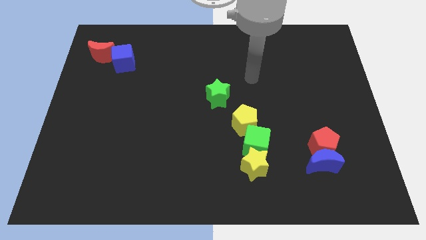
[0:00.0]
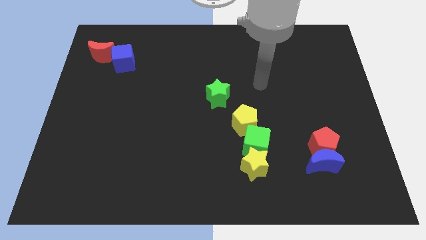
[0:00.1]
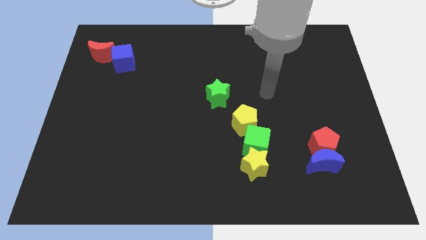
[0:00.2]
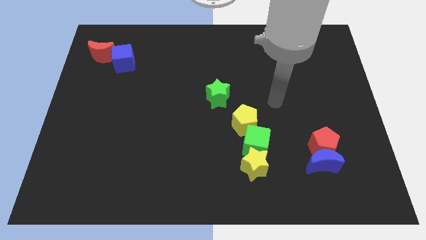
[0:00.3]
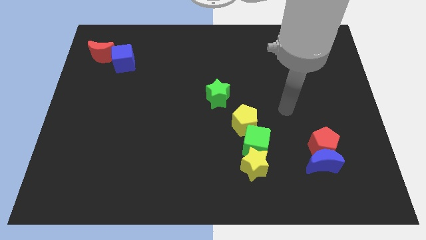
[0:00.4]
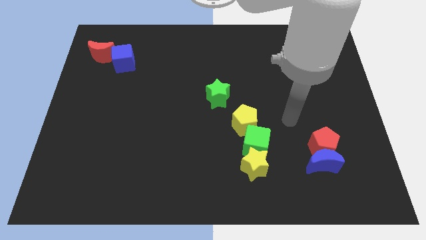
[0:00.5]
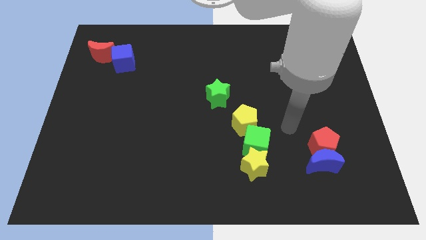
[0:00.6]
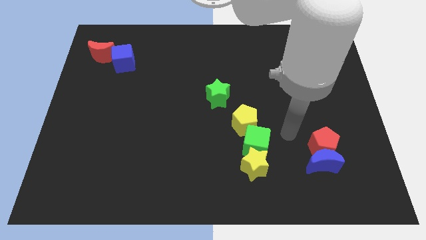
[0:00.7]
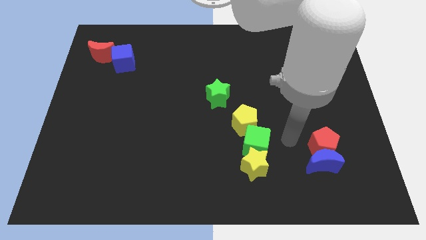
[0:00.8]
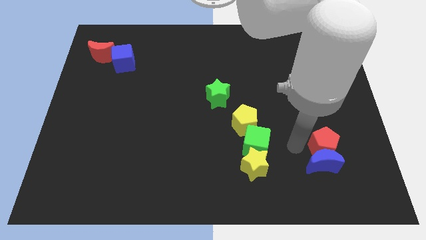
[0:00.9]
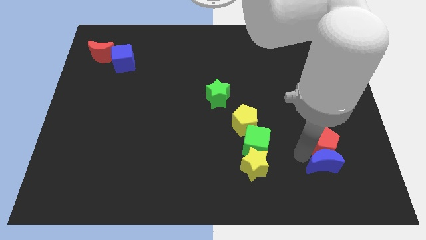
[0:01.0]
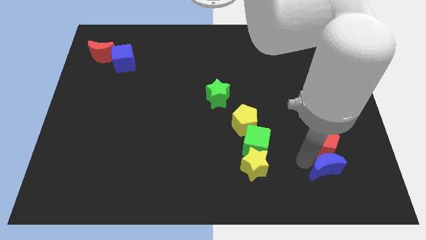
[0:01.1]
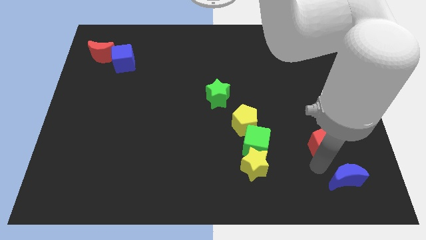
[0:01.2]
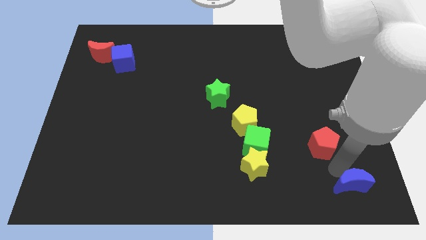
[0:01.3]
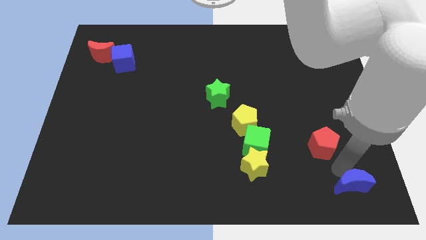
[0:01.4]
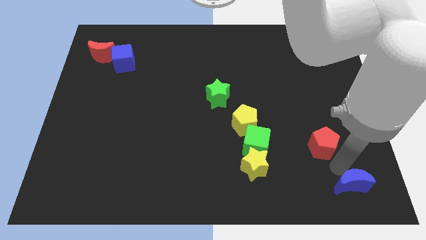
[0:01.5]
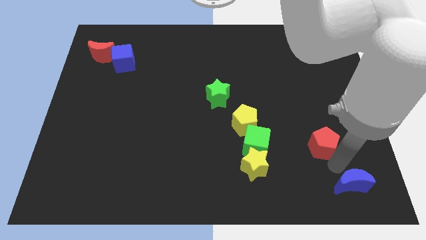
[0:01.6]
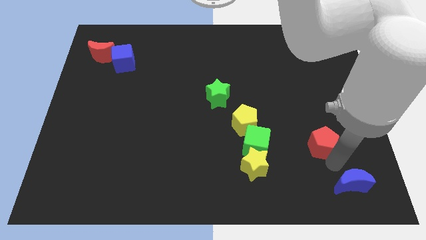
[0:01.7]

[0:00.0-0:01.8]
separate the red pentagon from the blue moon

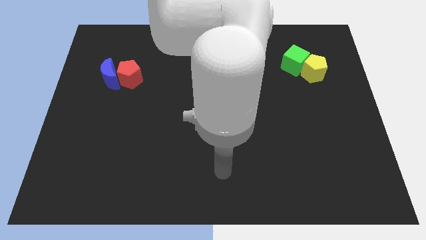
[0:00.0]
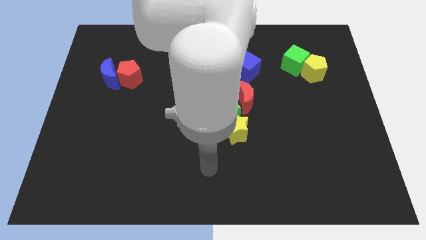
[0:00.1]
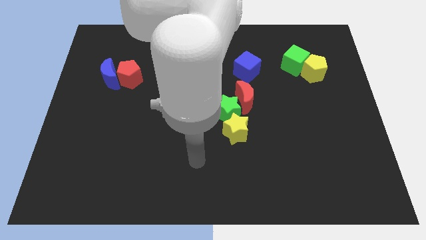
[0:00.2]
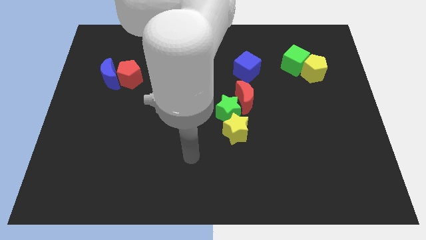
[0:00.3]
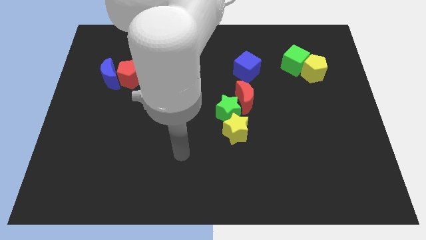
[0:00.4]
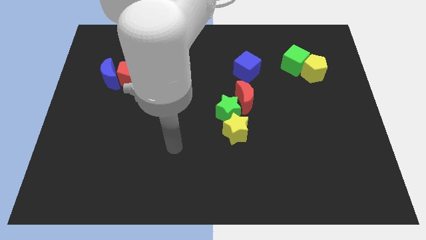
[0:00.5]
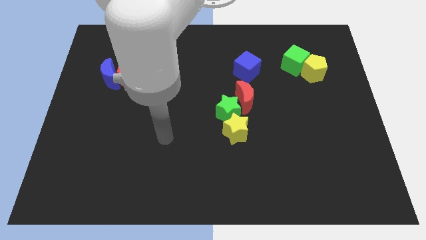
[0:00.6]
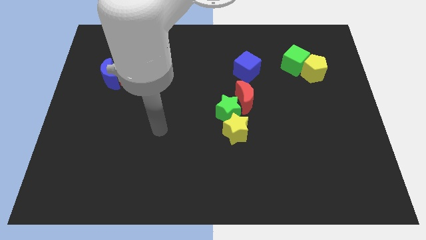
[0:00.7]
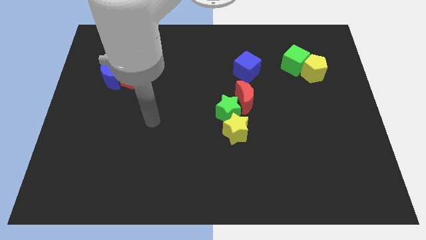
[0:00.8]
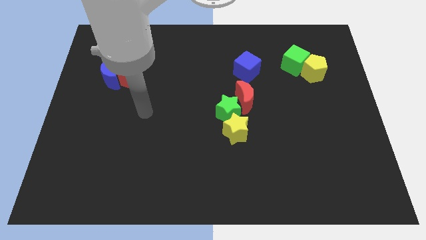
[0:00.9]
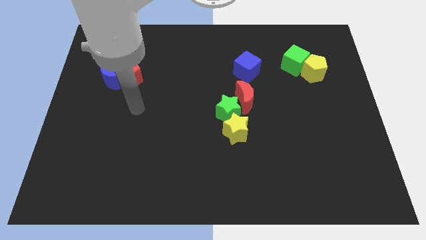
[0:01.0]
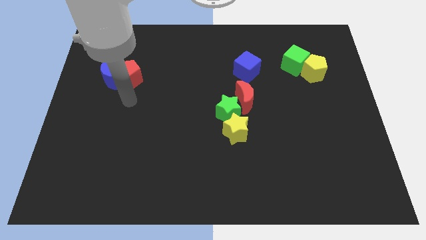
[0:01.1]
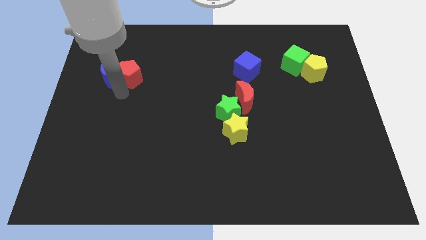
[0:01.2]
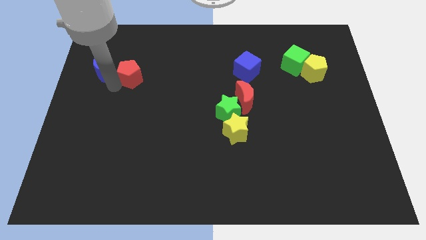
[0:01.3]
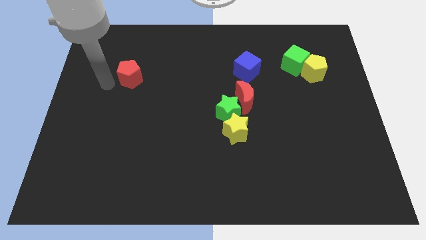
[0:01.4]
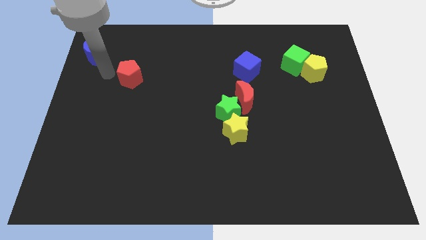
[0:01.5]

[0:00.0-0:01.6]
pull the red pentagon apart from the blue moon

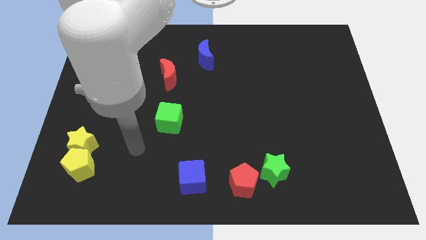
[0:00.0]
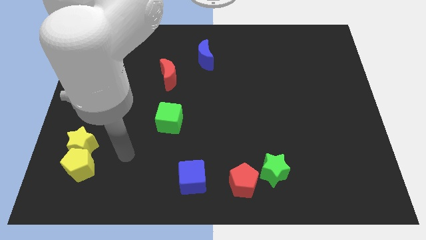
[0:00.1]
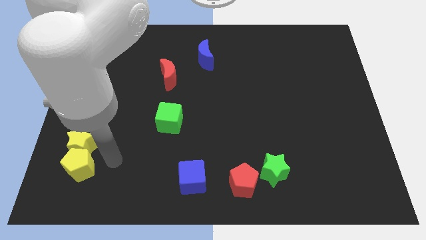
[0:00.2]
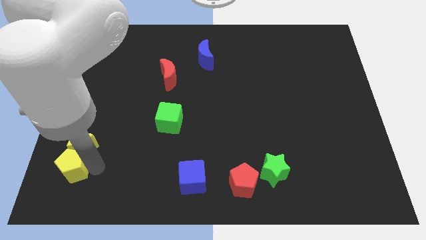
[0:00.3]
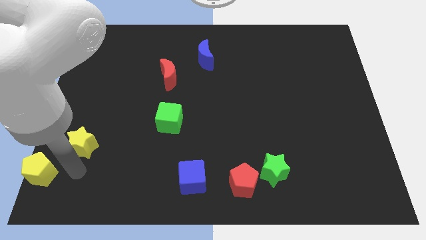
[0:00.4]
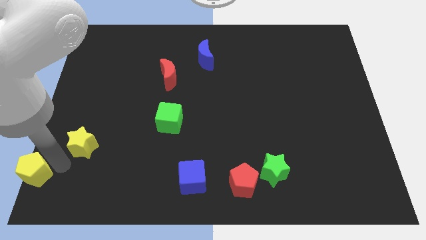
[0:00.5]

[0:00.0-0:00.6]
pull the yellow star apart from the yellow pentagon

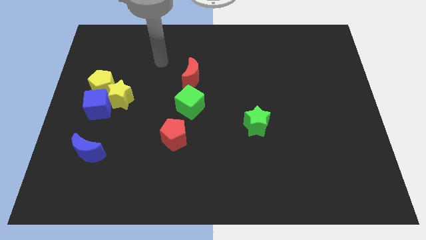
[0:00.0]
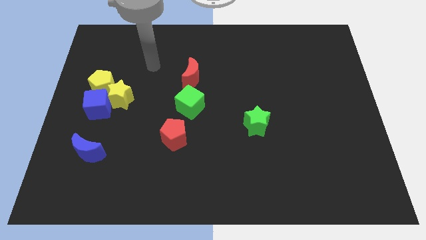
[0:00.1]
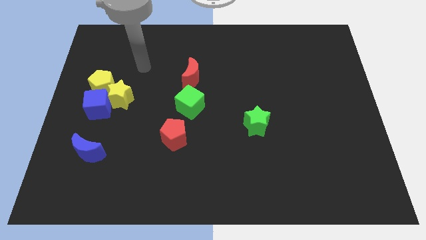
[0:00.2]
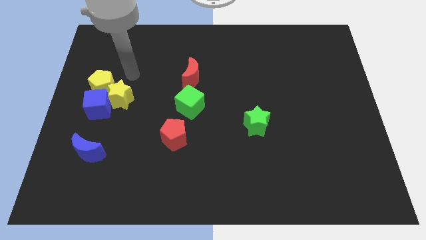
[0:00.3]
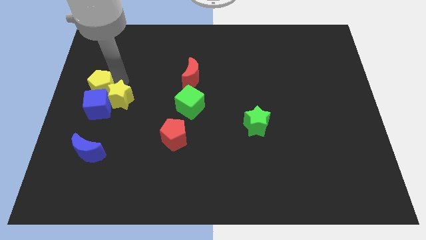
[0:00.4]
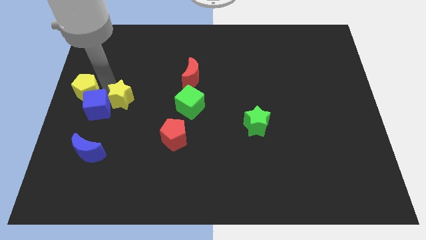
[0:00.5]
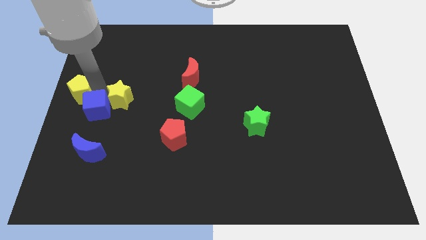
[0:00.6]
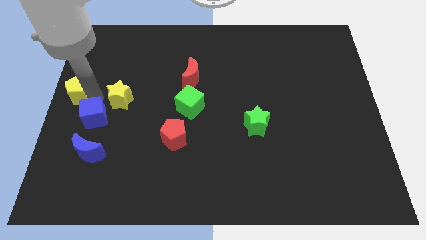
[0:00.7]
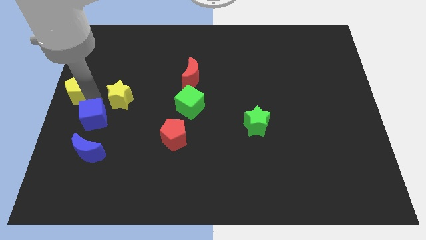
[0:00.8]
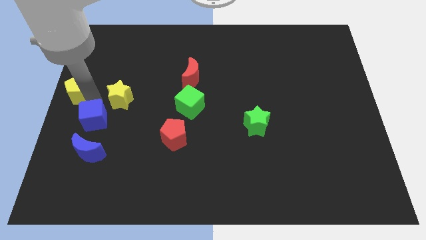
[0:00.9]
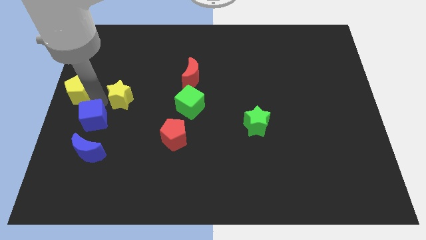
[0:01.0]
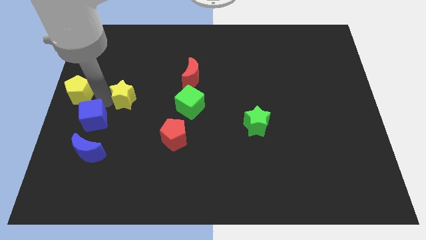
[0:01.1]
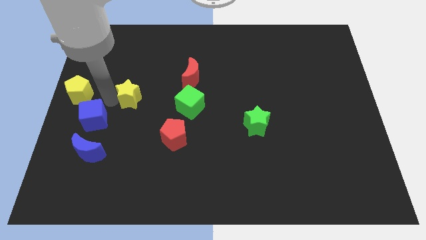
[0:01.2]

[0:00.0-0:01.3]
separate the yellow star from the blue cube and yellow pentagon

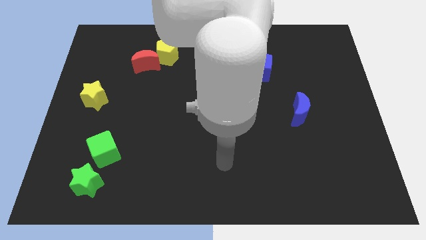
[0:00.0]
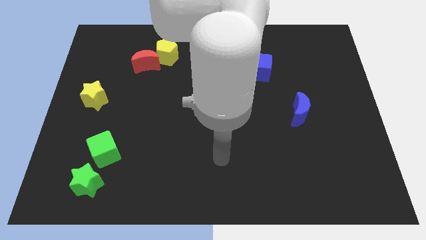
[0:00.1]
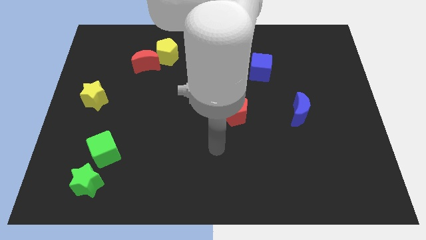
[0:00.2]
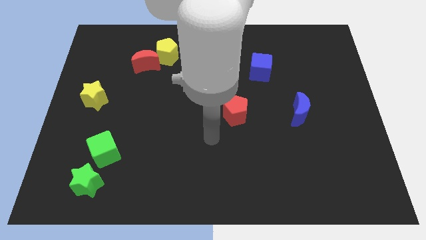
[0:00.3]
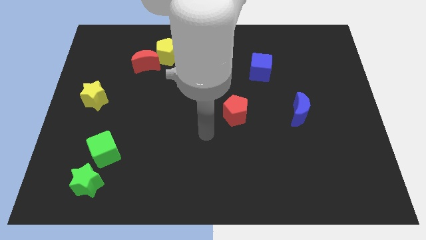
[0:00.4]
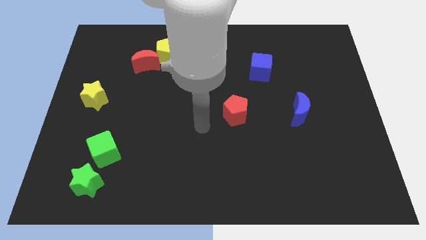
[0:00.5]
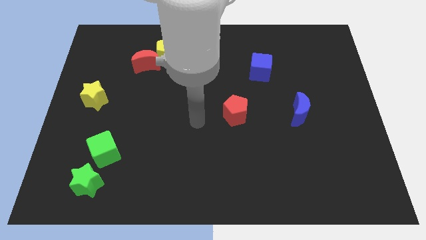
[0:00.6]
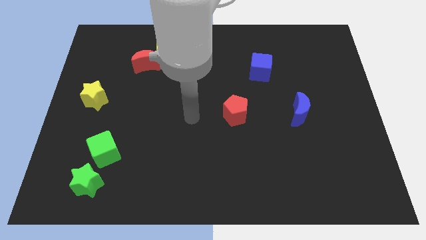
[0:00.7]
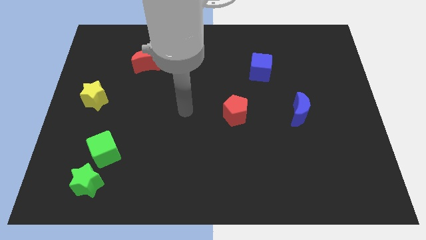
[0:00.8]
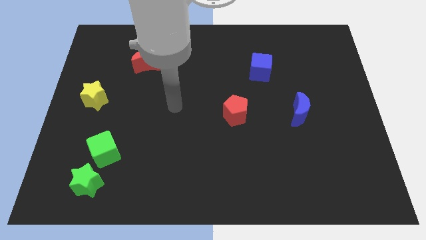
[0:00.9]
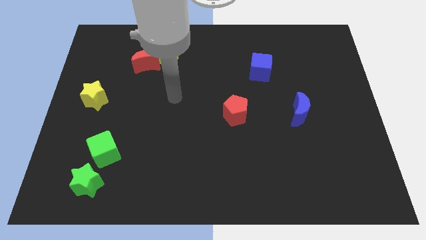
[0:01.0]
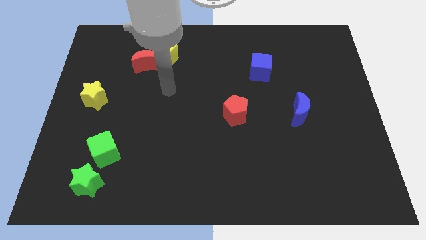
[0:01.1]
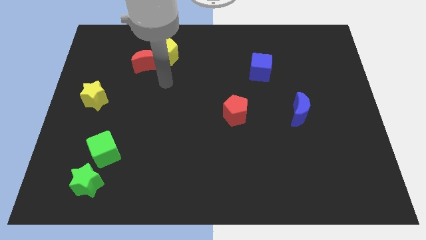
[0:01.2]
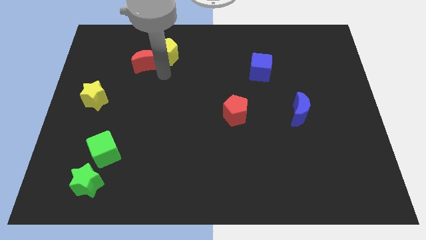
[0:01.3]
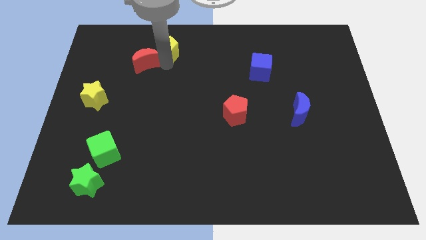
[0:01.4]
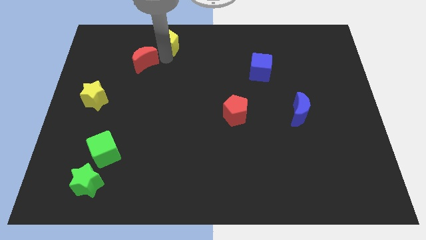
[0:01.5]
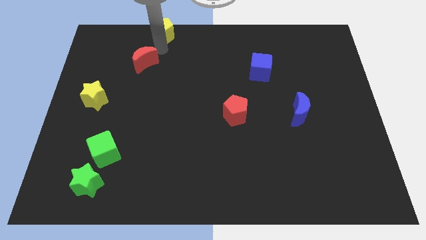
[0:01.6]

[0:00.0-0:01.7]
pull the red moon apart from the yellow pentagon

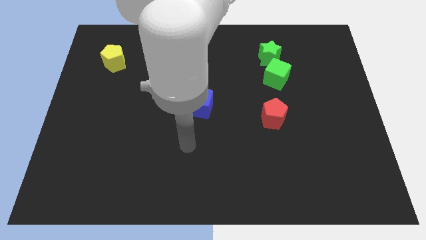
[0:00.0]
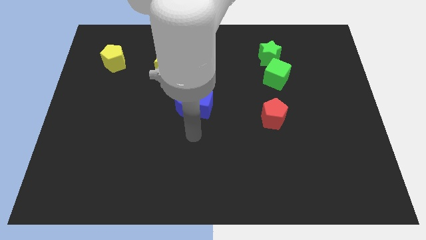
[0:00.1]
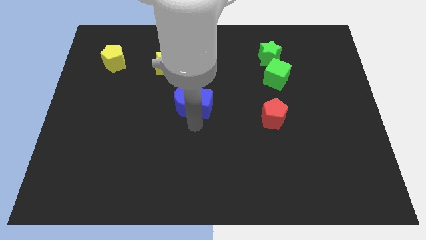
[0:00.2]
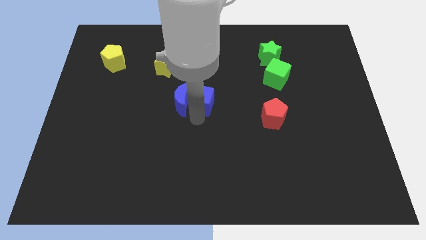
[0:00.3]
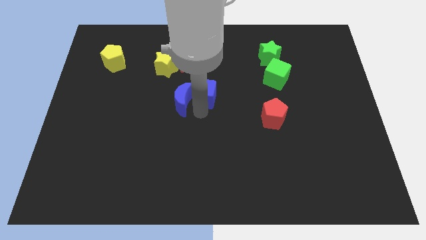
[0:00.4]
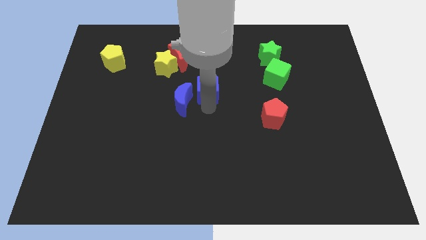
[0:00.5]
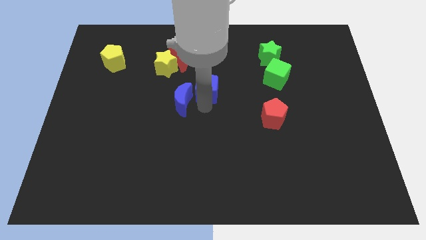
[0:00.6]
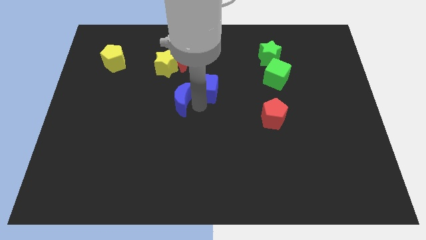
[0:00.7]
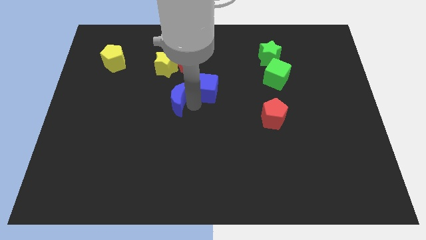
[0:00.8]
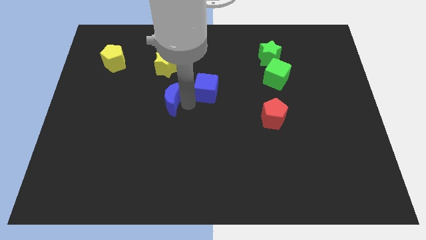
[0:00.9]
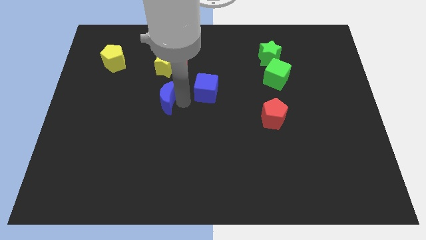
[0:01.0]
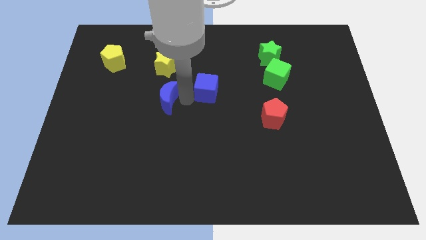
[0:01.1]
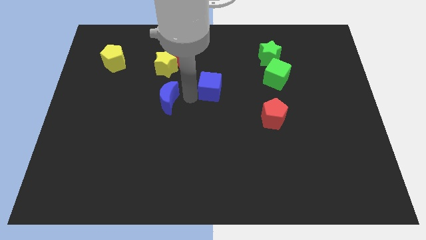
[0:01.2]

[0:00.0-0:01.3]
pull the blue moon apart from the blue cube

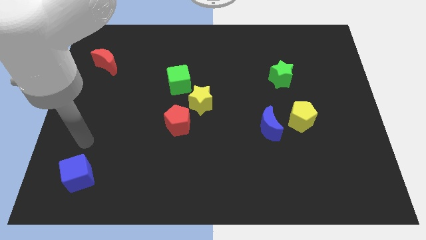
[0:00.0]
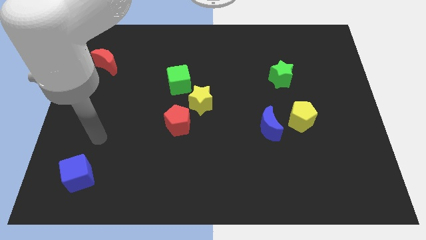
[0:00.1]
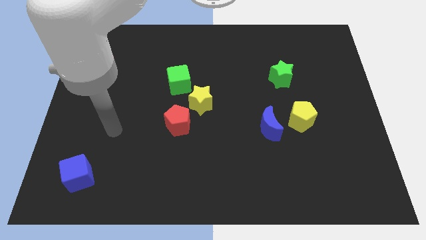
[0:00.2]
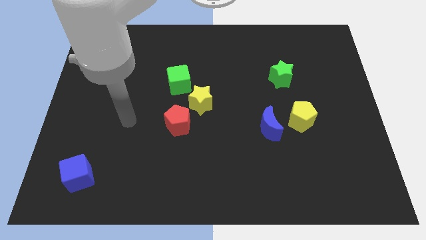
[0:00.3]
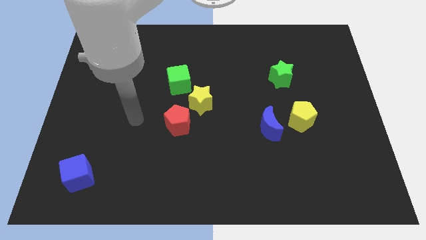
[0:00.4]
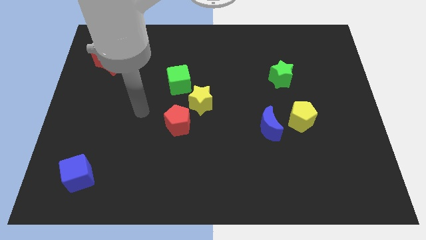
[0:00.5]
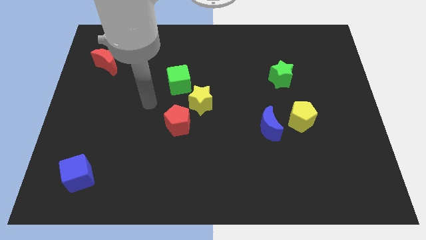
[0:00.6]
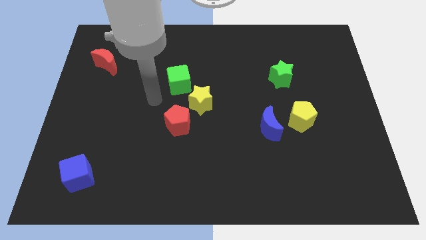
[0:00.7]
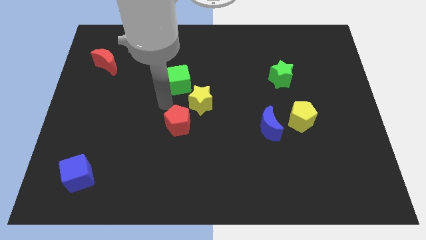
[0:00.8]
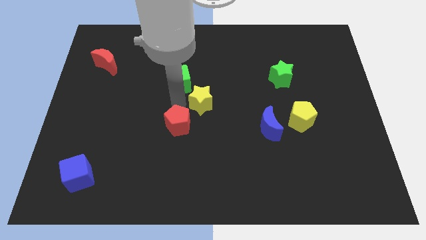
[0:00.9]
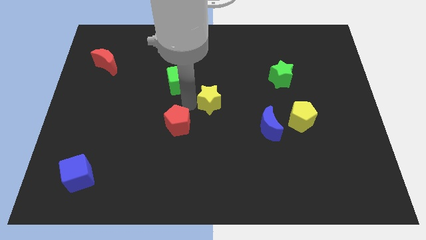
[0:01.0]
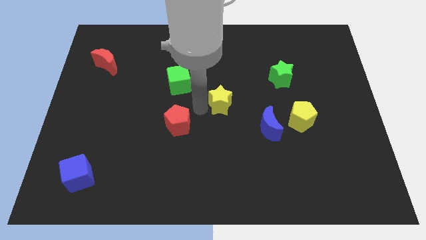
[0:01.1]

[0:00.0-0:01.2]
separate the red pentagon from the yellow star
